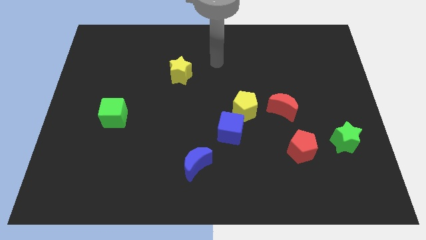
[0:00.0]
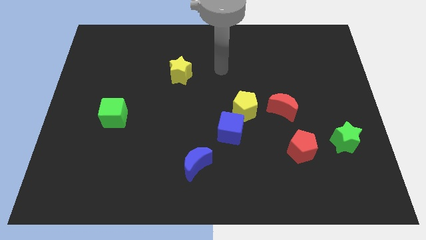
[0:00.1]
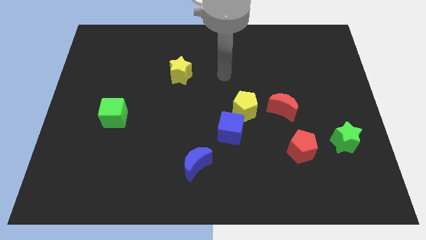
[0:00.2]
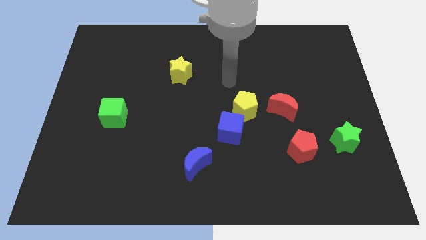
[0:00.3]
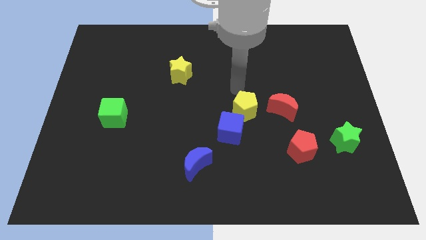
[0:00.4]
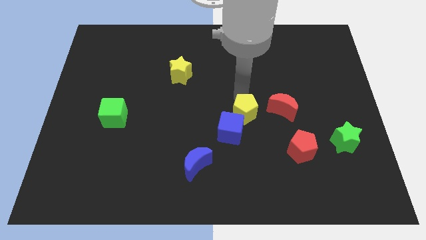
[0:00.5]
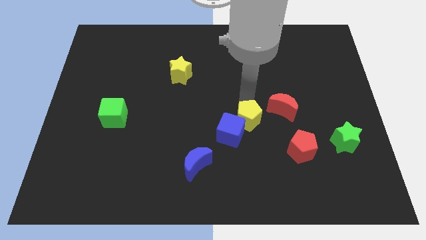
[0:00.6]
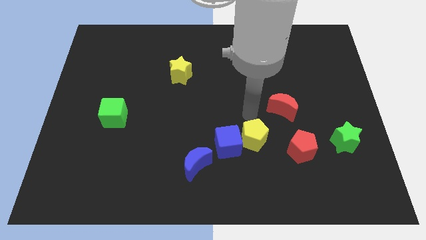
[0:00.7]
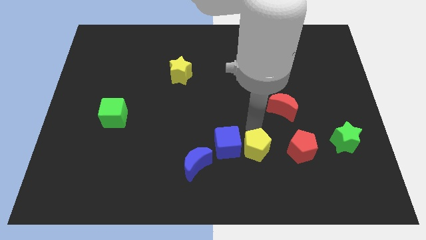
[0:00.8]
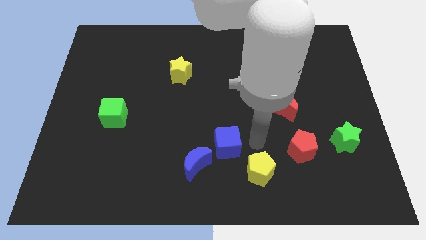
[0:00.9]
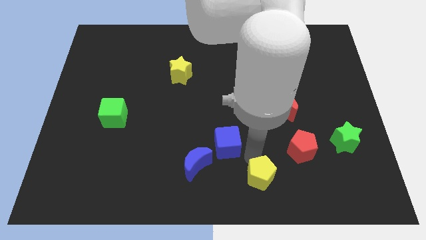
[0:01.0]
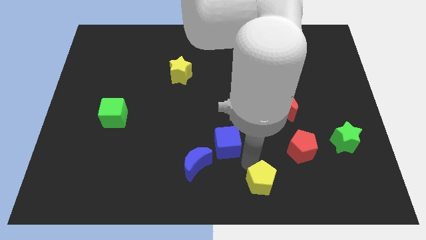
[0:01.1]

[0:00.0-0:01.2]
move the blue cube away from the yellow pentagon

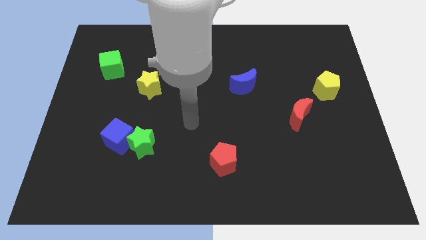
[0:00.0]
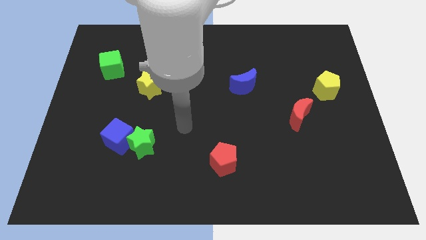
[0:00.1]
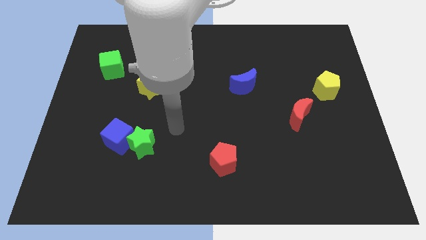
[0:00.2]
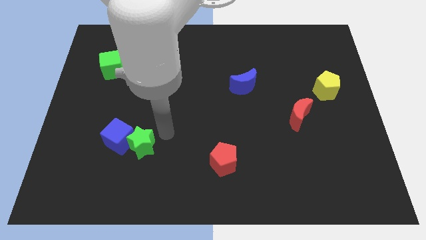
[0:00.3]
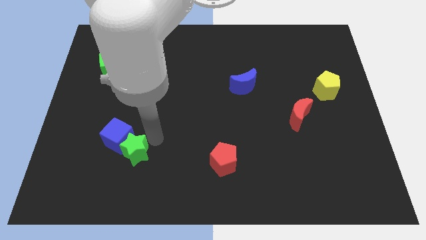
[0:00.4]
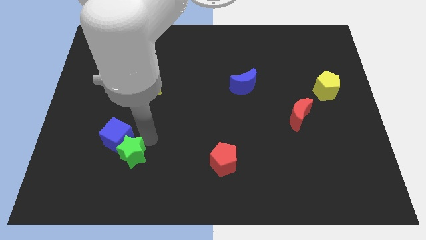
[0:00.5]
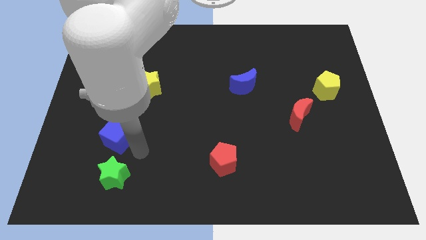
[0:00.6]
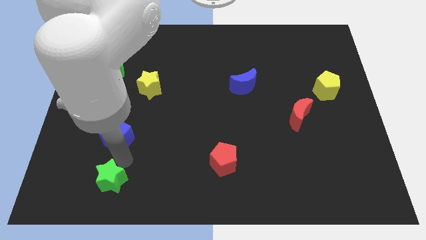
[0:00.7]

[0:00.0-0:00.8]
pull the blue cube apart from the green star

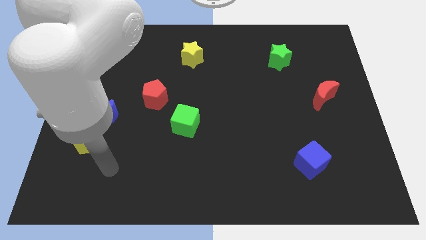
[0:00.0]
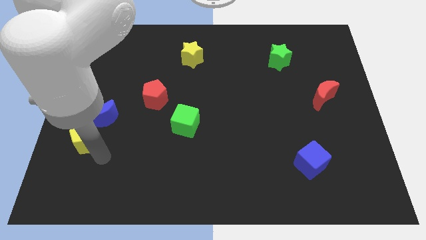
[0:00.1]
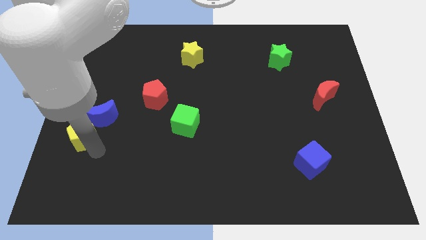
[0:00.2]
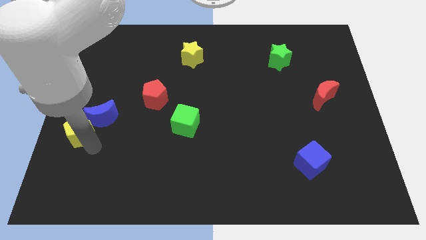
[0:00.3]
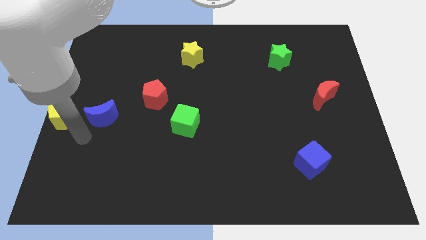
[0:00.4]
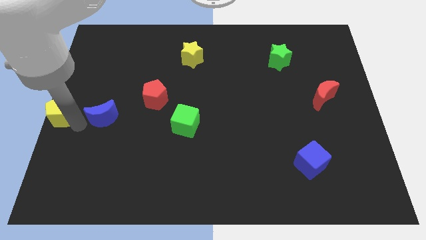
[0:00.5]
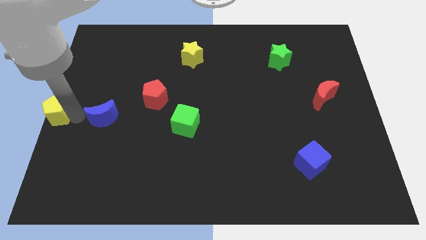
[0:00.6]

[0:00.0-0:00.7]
pull the blue moon apart from the yellow pentagon

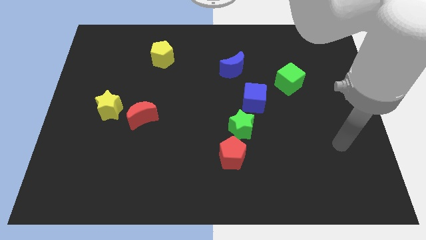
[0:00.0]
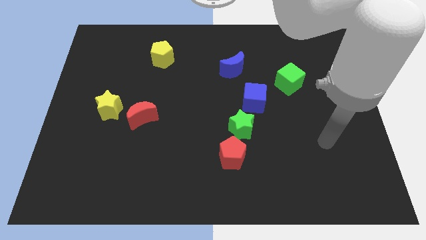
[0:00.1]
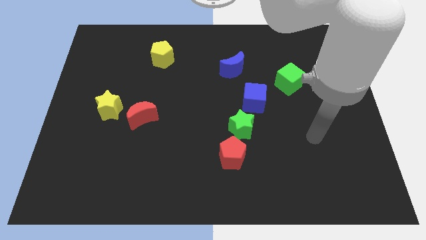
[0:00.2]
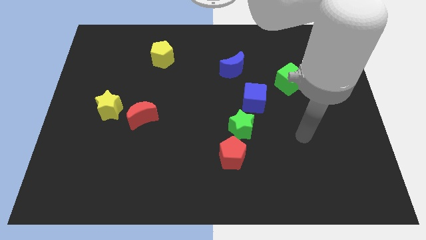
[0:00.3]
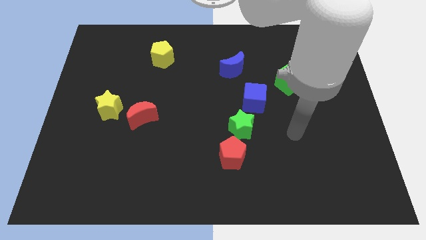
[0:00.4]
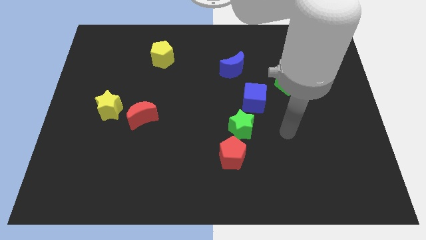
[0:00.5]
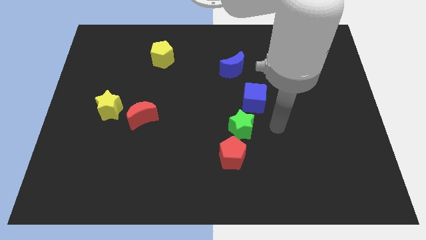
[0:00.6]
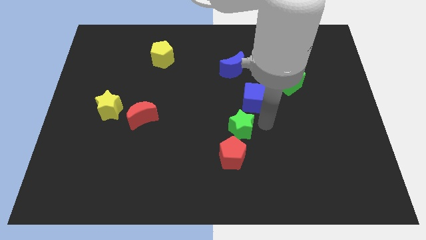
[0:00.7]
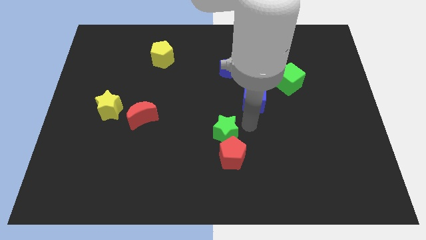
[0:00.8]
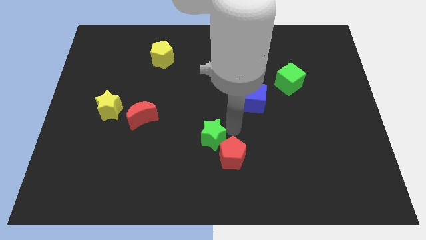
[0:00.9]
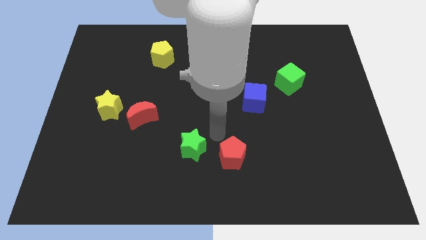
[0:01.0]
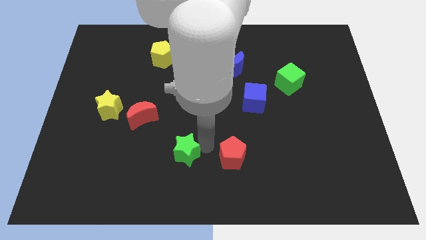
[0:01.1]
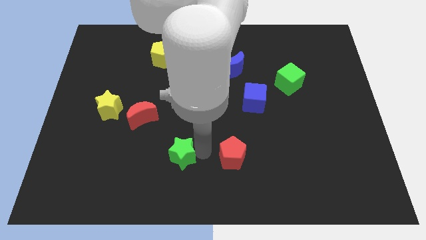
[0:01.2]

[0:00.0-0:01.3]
move the red pentagon away from the green star

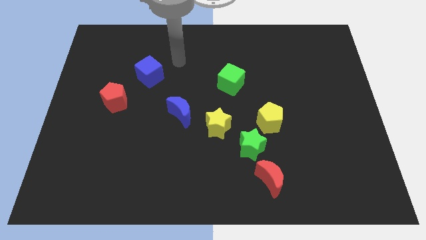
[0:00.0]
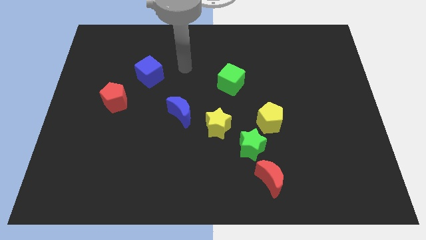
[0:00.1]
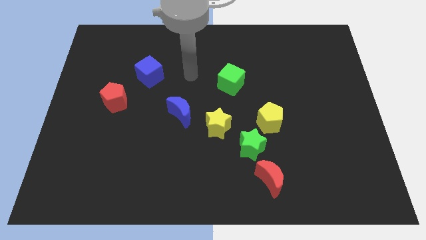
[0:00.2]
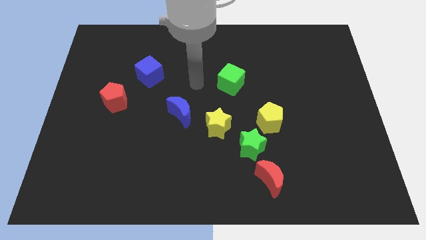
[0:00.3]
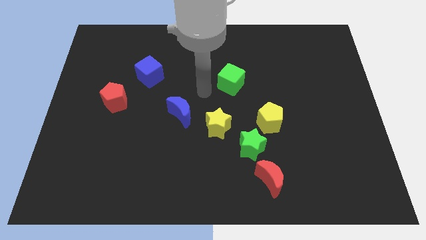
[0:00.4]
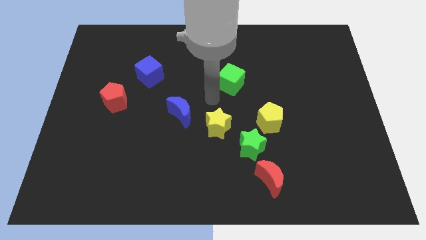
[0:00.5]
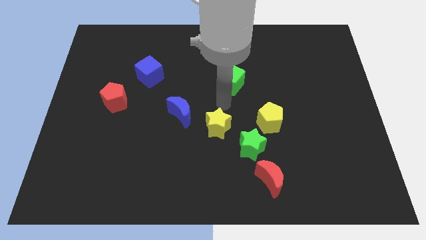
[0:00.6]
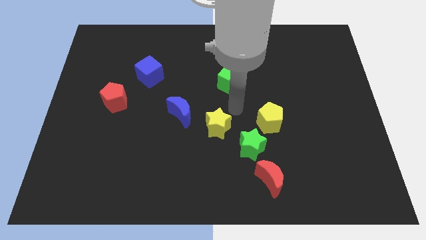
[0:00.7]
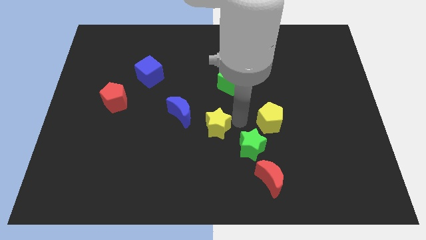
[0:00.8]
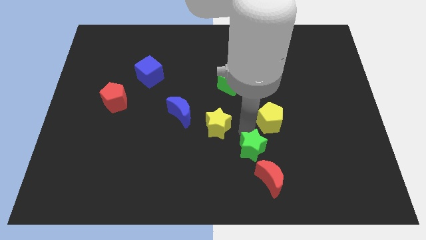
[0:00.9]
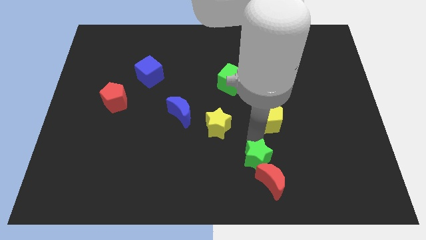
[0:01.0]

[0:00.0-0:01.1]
separate the yellow pentagon from the green star

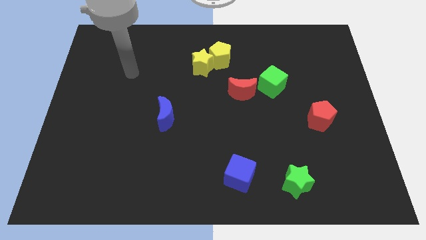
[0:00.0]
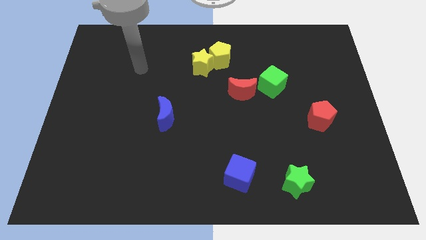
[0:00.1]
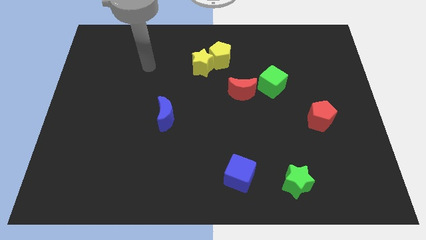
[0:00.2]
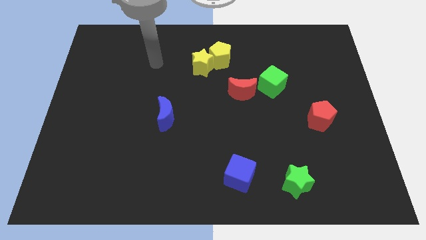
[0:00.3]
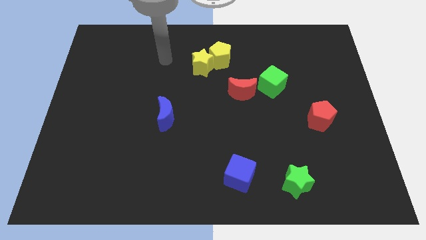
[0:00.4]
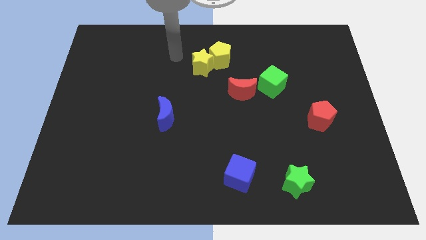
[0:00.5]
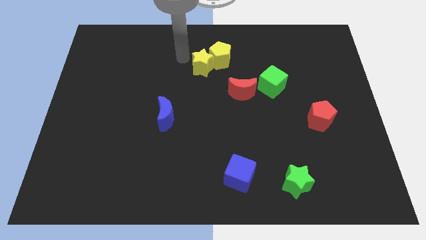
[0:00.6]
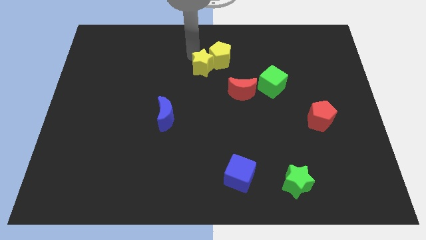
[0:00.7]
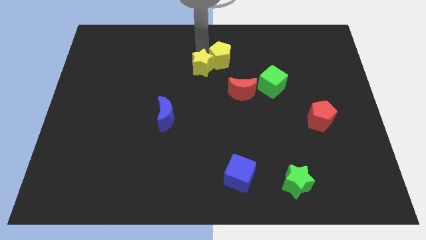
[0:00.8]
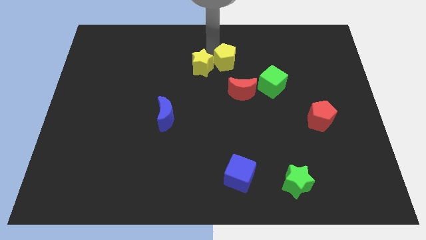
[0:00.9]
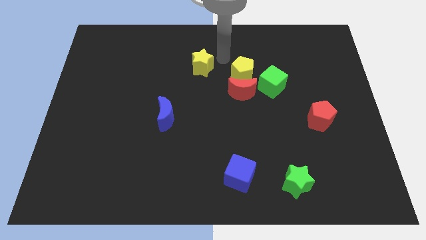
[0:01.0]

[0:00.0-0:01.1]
move the yellow star away from the yellow pentagon

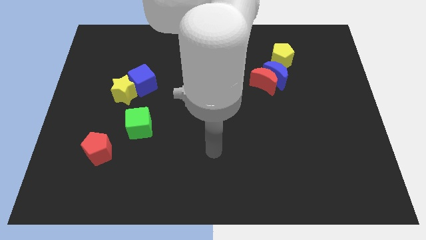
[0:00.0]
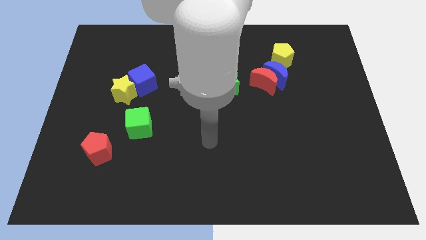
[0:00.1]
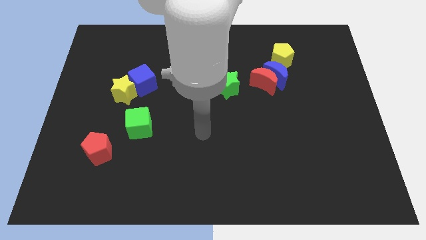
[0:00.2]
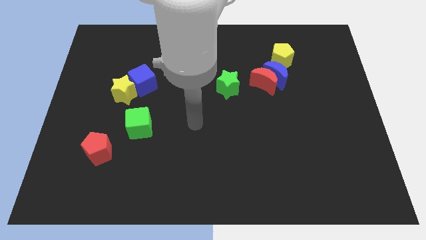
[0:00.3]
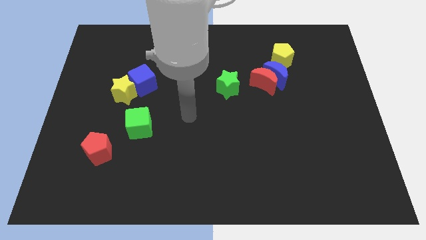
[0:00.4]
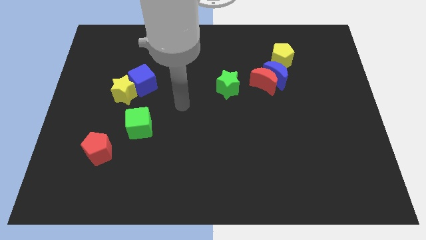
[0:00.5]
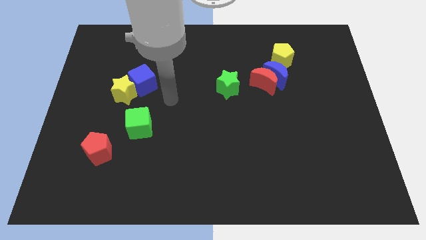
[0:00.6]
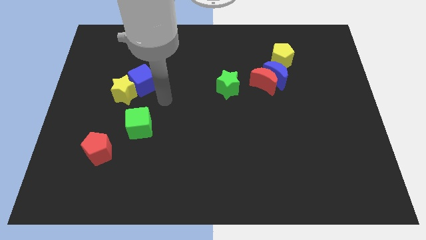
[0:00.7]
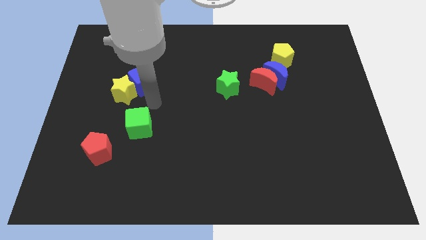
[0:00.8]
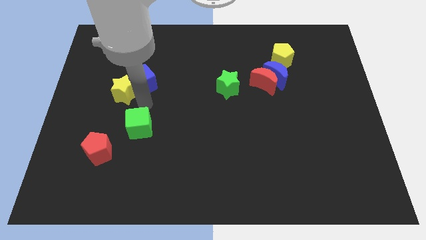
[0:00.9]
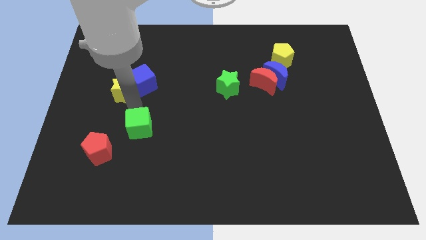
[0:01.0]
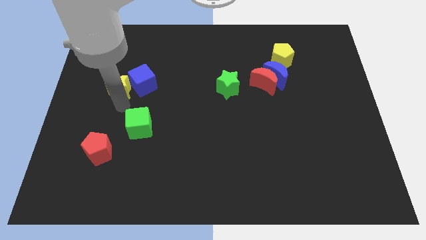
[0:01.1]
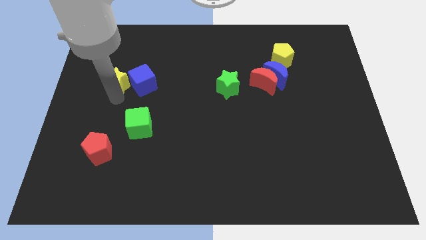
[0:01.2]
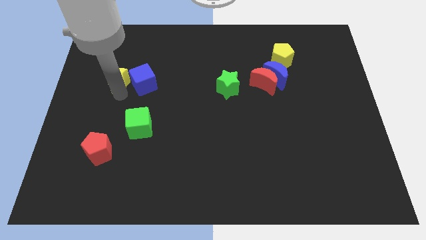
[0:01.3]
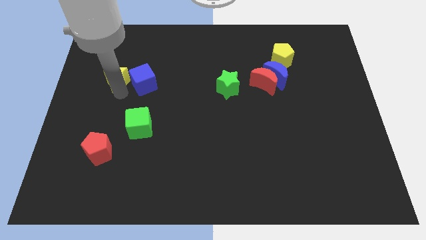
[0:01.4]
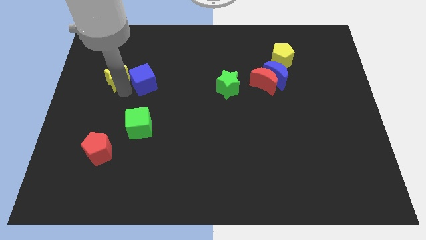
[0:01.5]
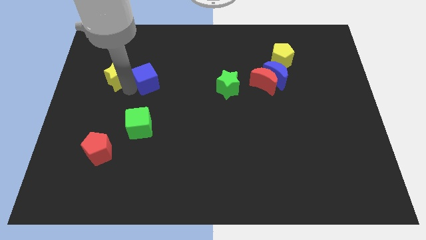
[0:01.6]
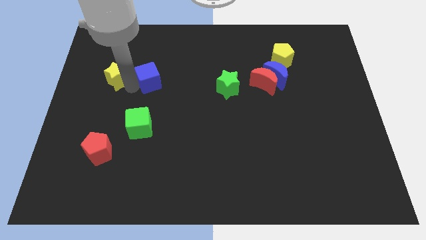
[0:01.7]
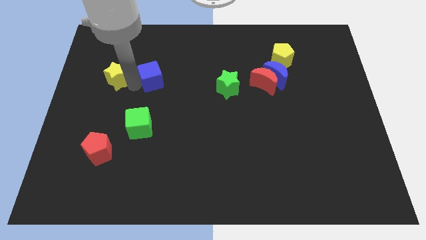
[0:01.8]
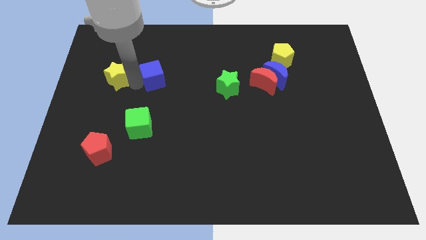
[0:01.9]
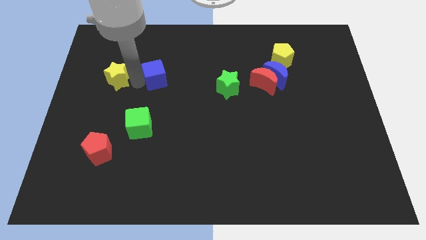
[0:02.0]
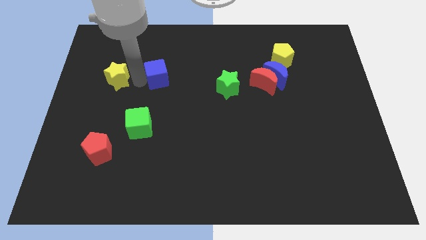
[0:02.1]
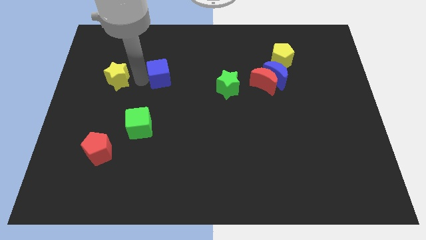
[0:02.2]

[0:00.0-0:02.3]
separate the blue cube from the yellow star

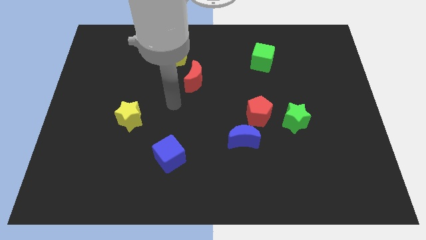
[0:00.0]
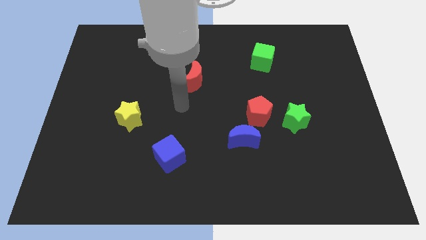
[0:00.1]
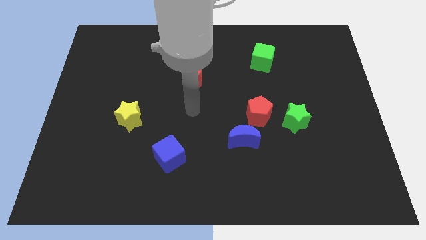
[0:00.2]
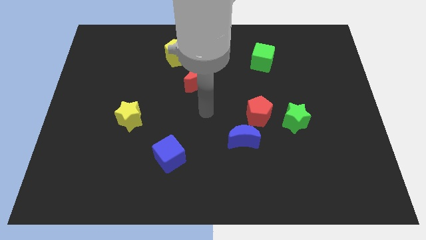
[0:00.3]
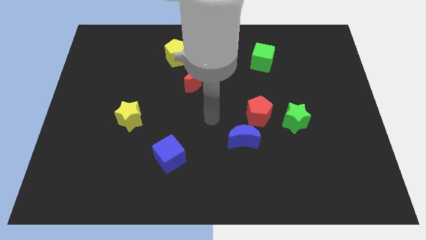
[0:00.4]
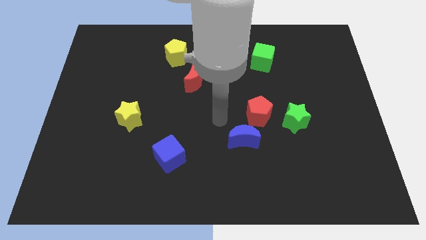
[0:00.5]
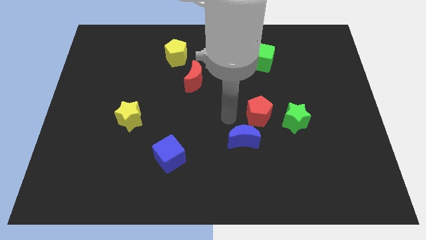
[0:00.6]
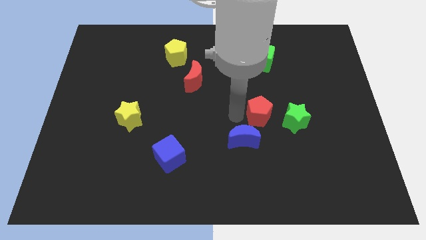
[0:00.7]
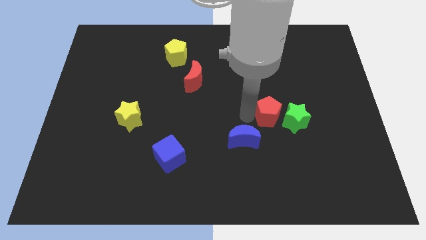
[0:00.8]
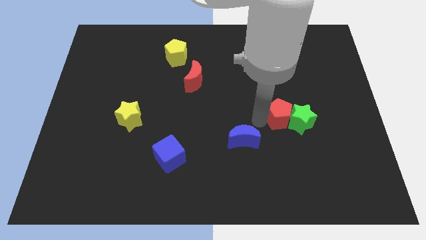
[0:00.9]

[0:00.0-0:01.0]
pull the blue moon apart from the red pentagon
